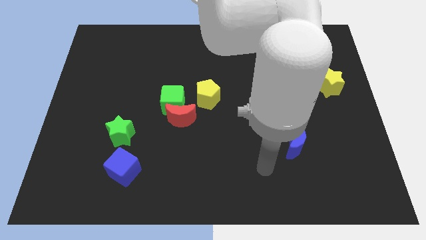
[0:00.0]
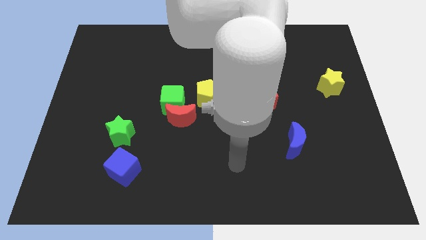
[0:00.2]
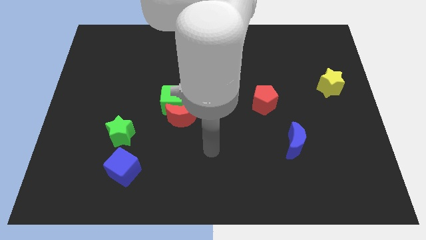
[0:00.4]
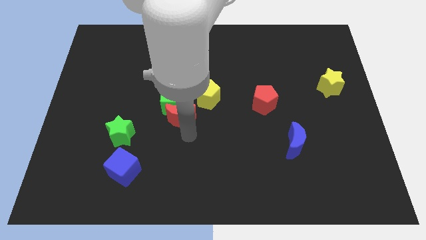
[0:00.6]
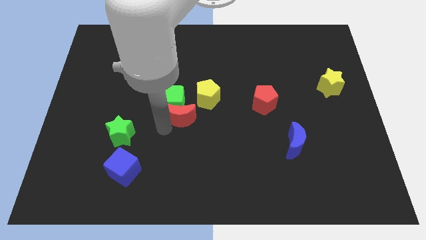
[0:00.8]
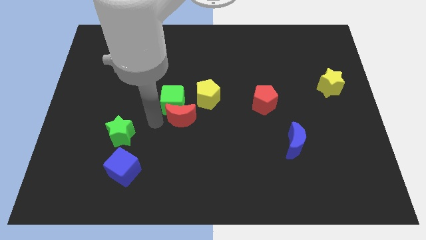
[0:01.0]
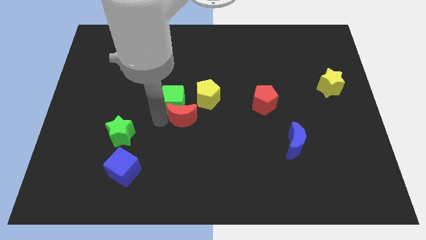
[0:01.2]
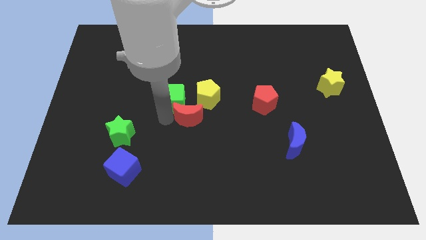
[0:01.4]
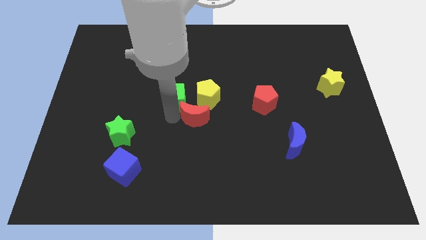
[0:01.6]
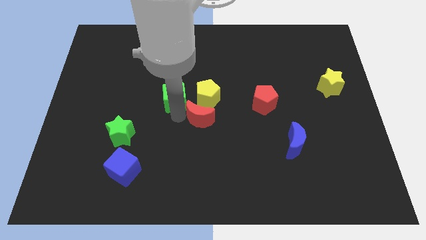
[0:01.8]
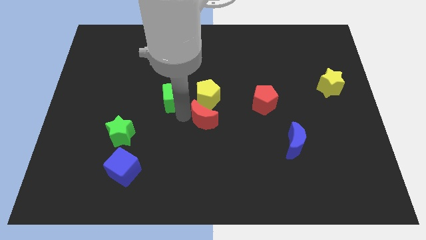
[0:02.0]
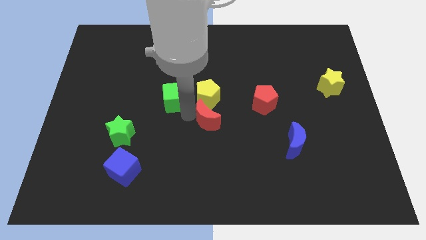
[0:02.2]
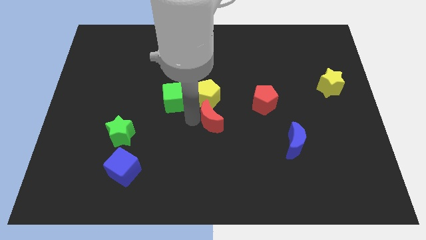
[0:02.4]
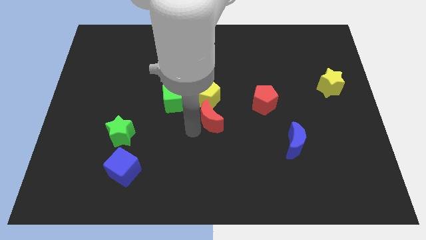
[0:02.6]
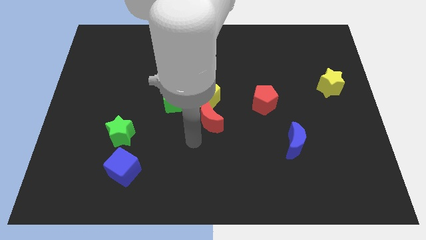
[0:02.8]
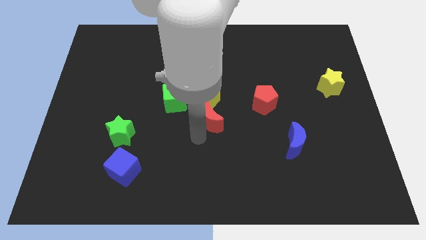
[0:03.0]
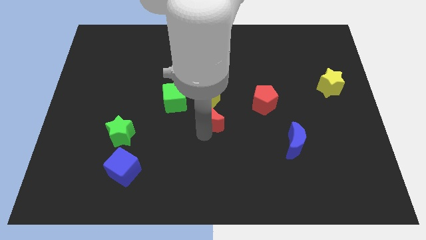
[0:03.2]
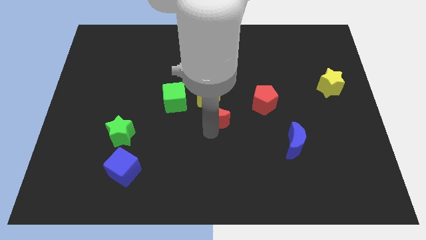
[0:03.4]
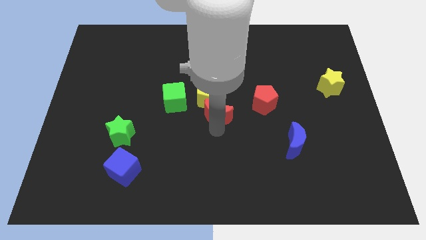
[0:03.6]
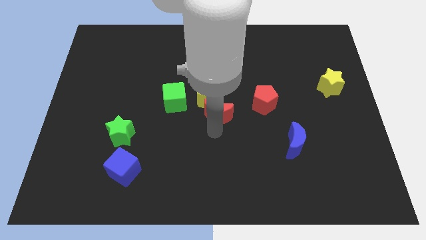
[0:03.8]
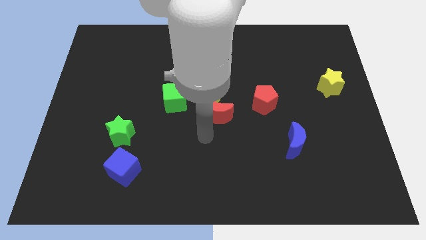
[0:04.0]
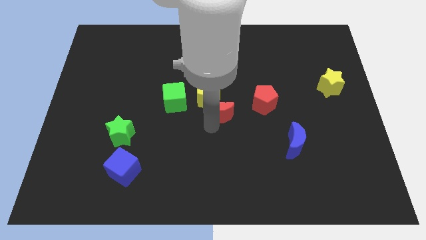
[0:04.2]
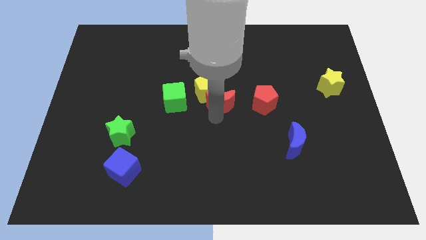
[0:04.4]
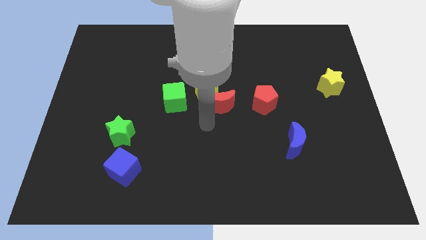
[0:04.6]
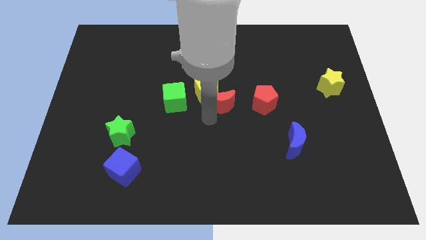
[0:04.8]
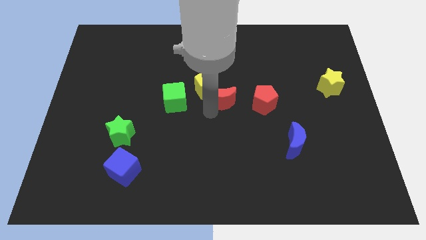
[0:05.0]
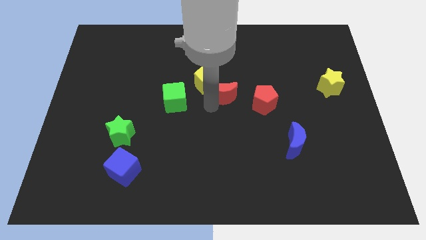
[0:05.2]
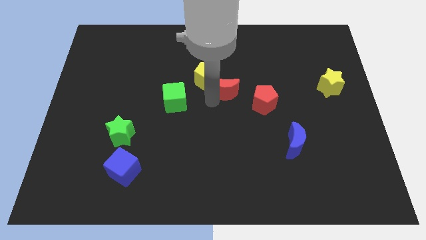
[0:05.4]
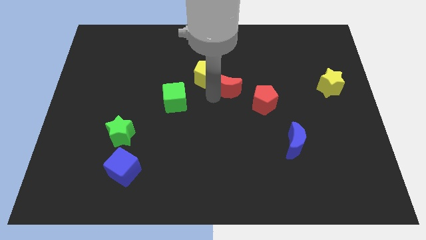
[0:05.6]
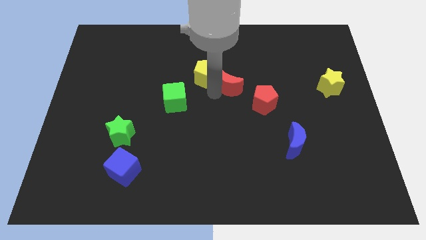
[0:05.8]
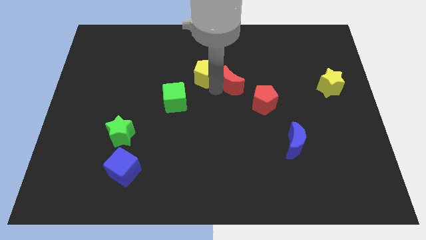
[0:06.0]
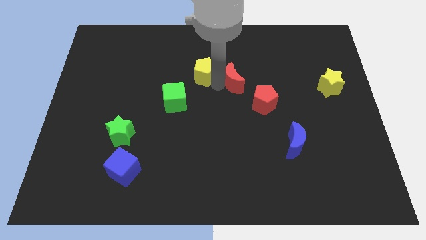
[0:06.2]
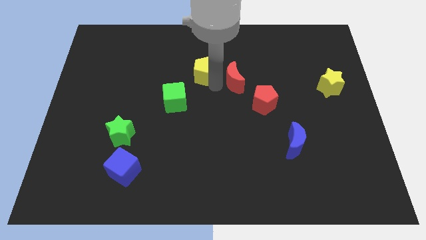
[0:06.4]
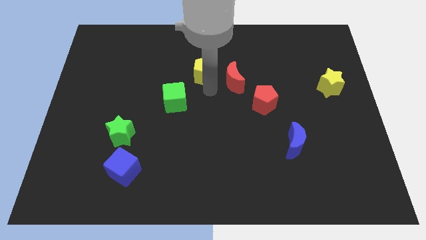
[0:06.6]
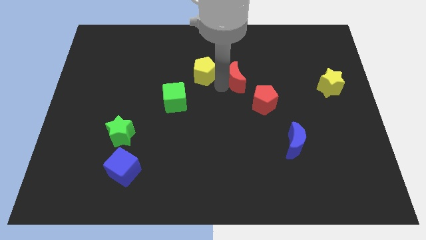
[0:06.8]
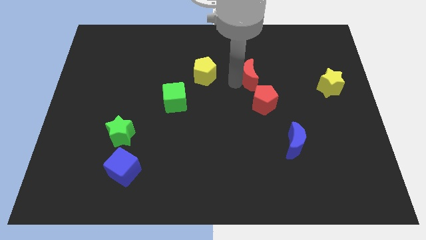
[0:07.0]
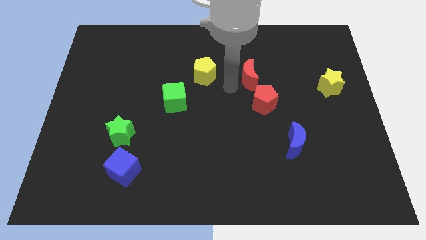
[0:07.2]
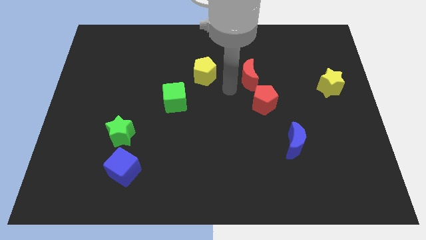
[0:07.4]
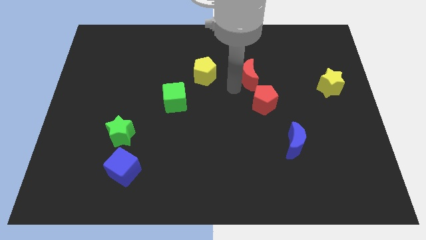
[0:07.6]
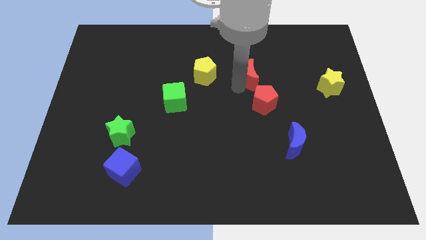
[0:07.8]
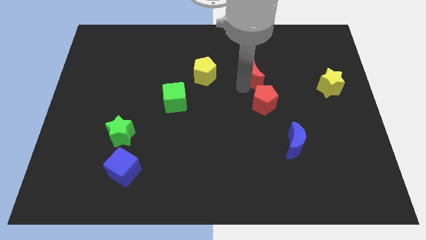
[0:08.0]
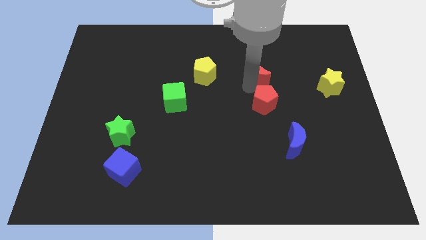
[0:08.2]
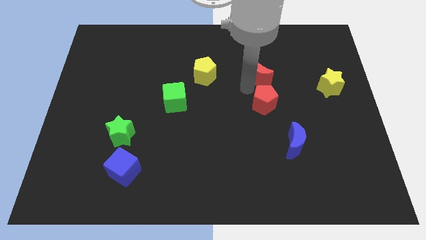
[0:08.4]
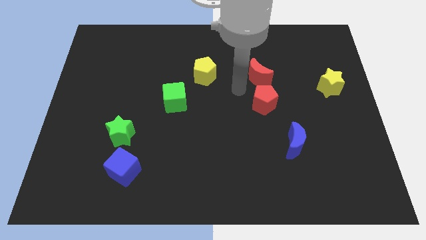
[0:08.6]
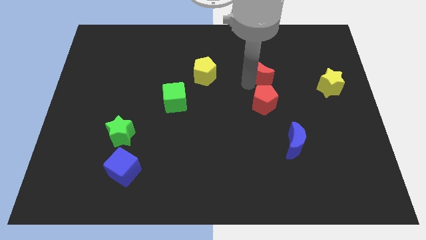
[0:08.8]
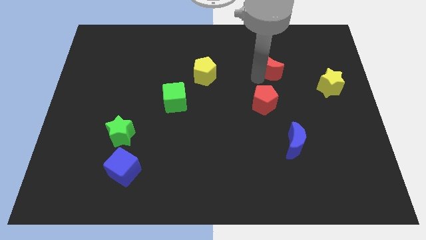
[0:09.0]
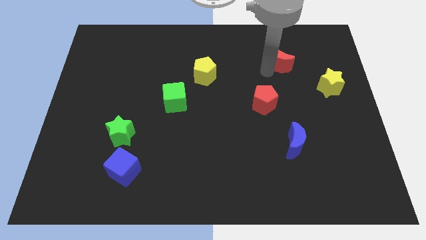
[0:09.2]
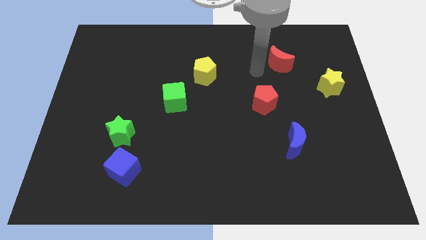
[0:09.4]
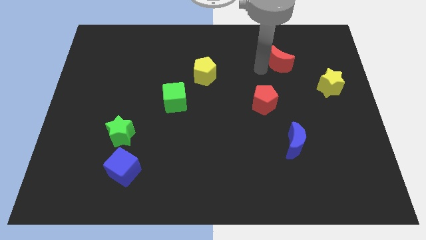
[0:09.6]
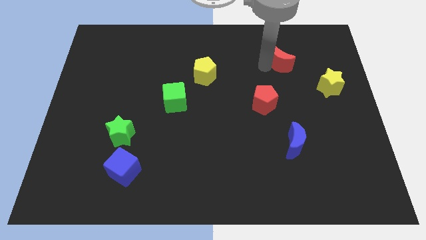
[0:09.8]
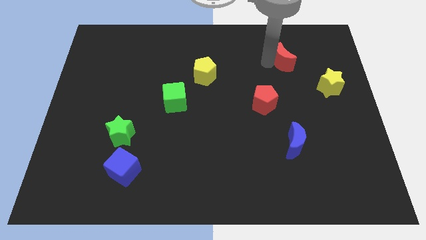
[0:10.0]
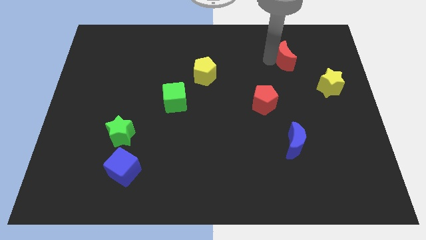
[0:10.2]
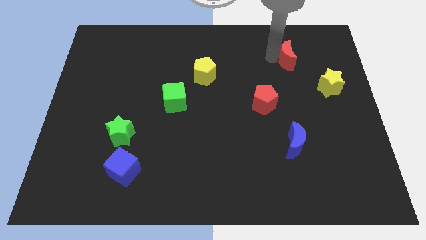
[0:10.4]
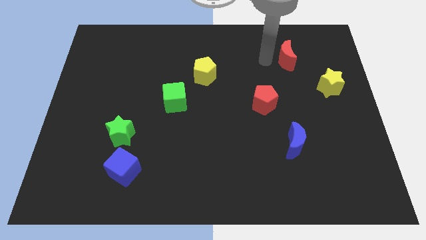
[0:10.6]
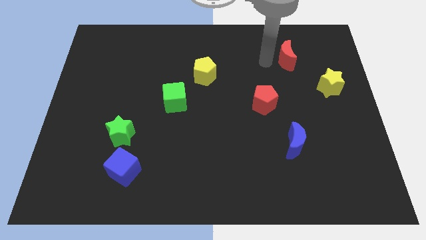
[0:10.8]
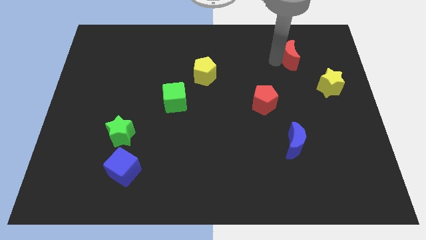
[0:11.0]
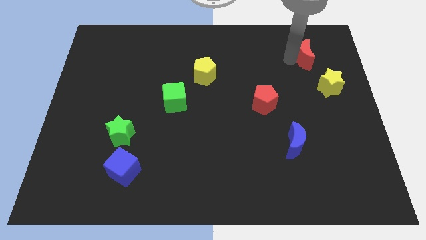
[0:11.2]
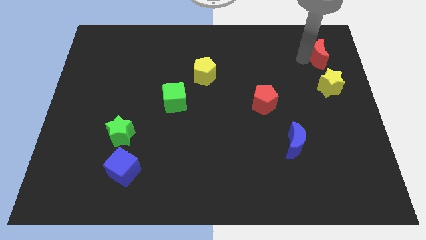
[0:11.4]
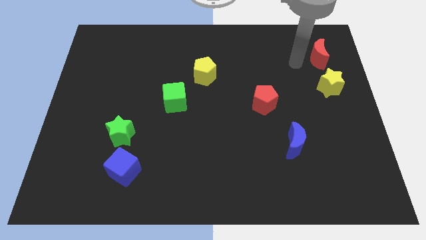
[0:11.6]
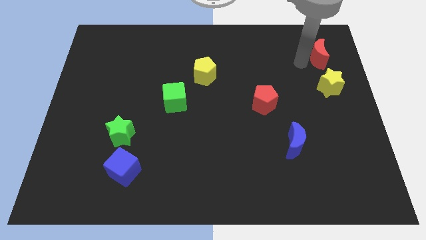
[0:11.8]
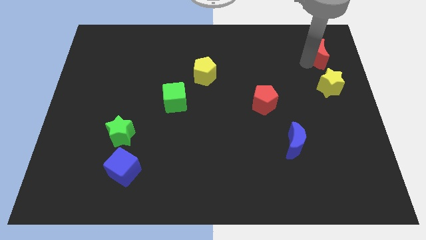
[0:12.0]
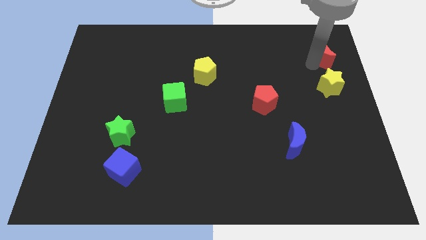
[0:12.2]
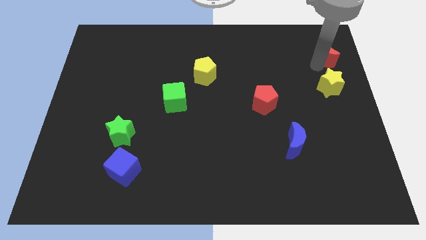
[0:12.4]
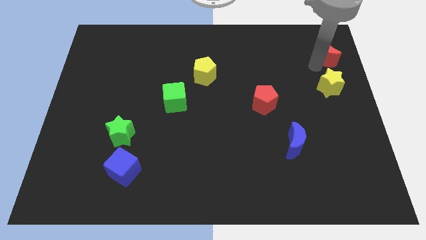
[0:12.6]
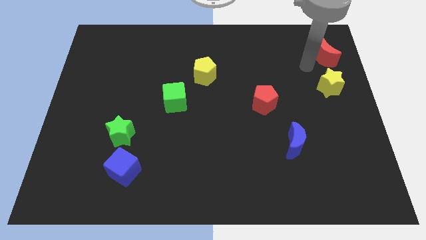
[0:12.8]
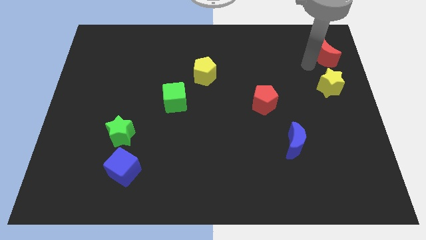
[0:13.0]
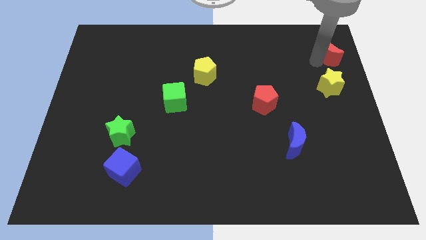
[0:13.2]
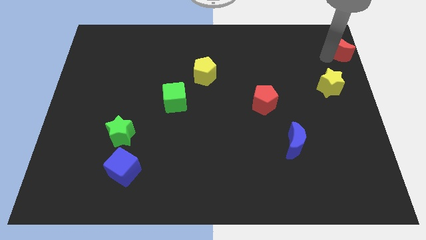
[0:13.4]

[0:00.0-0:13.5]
push the red moon to the top right
